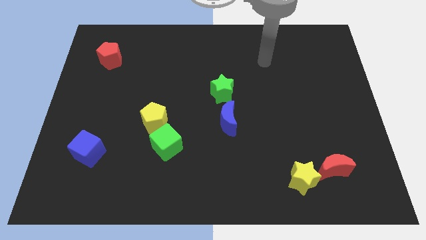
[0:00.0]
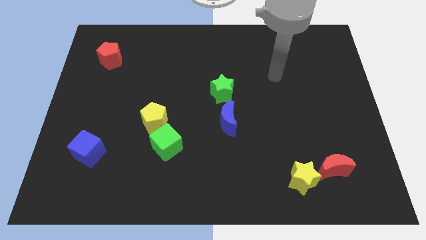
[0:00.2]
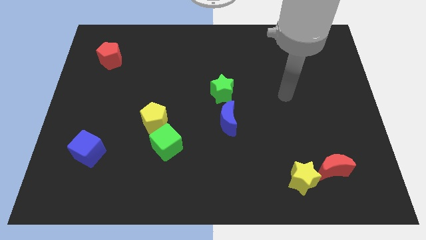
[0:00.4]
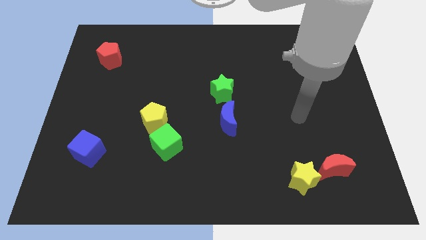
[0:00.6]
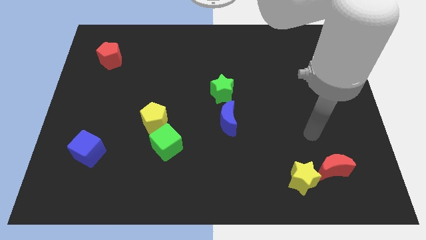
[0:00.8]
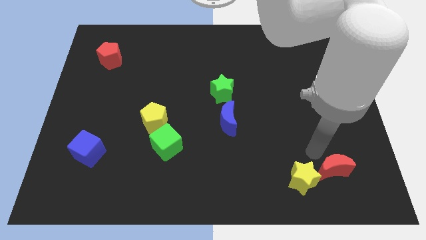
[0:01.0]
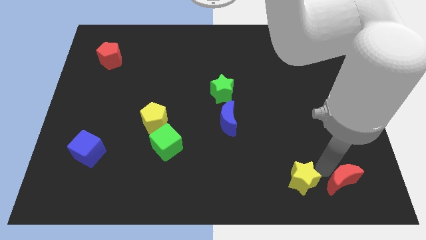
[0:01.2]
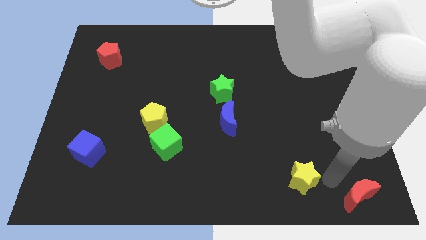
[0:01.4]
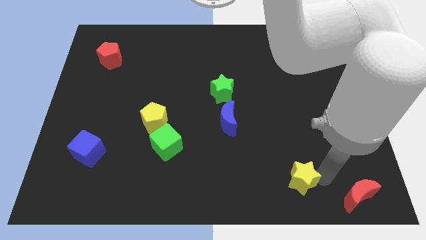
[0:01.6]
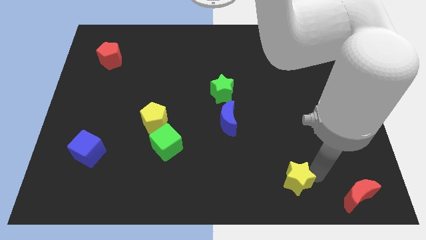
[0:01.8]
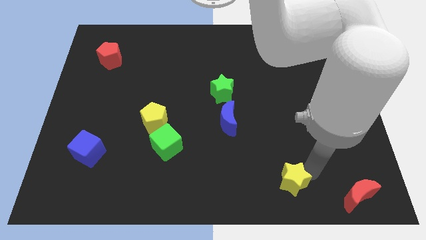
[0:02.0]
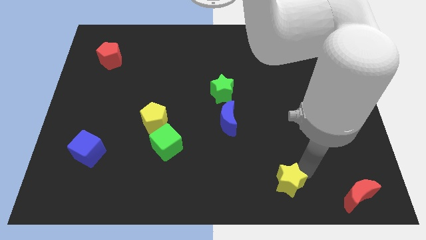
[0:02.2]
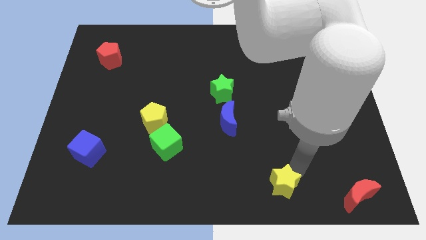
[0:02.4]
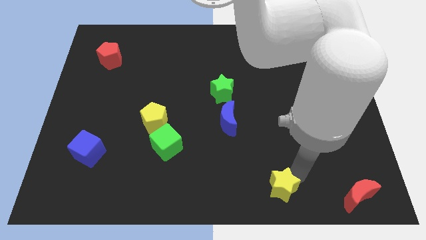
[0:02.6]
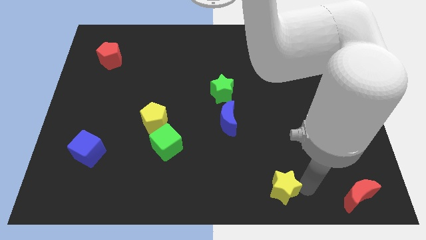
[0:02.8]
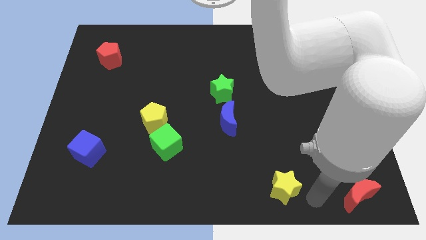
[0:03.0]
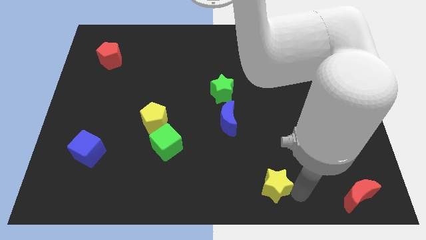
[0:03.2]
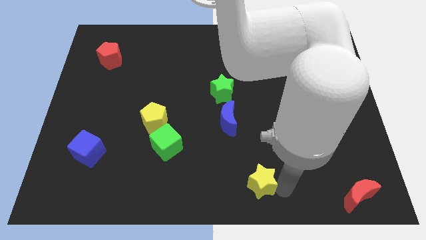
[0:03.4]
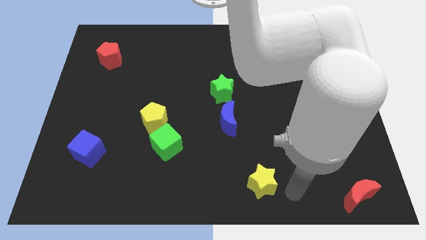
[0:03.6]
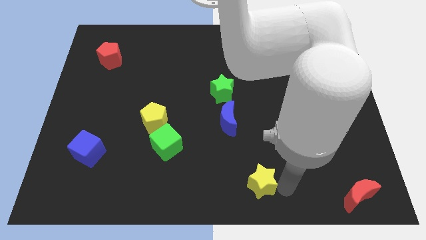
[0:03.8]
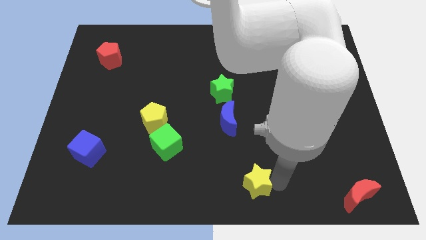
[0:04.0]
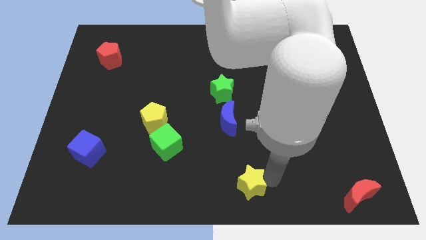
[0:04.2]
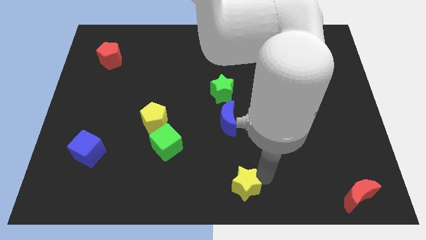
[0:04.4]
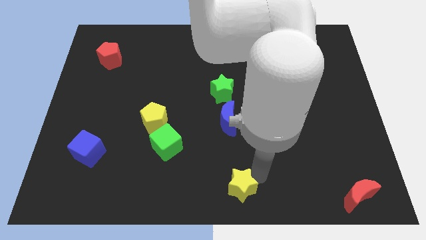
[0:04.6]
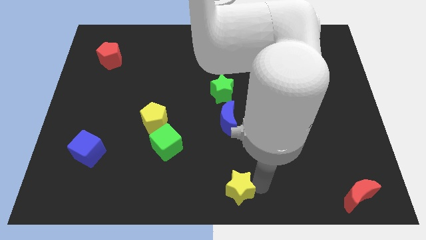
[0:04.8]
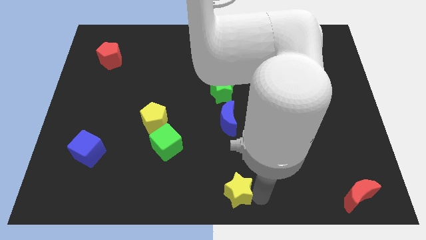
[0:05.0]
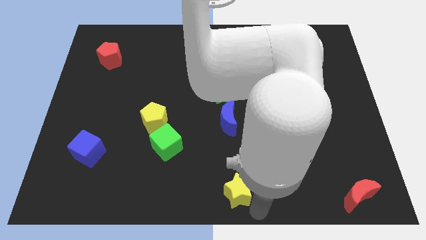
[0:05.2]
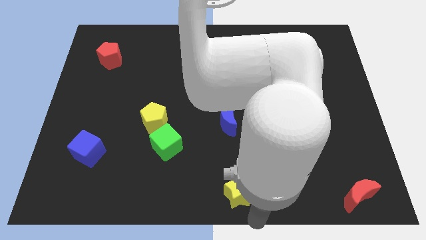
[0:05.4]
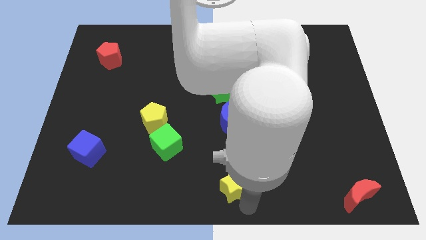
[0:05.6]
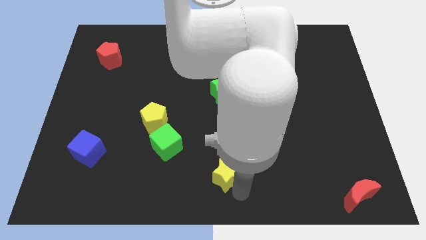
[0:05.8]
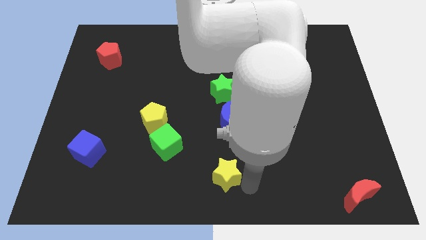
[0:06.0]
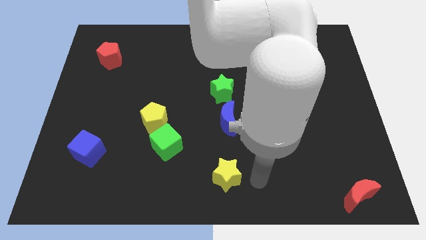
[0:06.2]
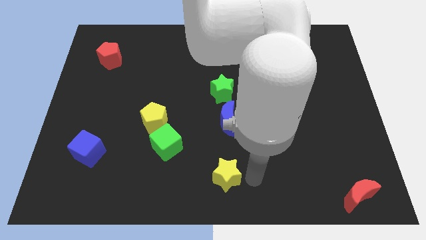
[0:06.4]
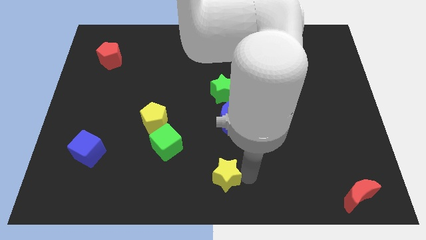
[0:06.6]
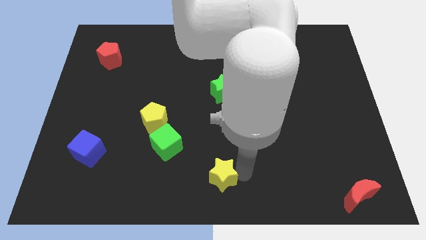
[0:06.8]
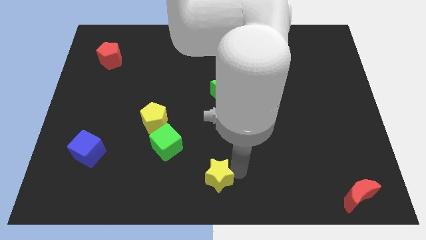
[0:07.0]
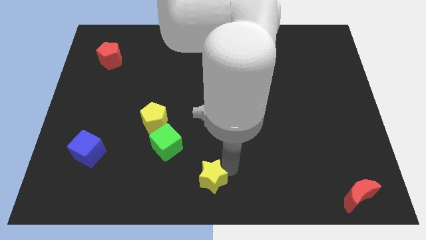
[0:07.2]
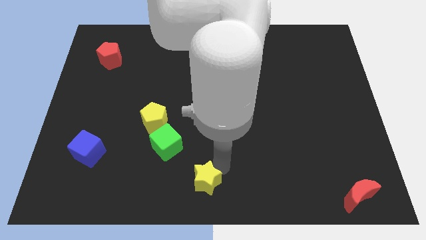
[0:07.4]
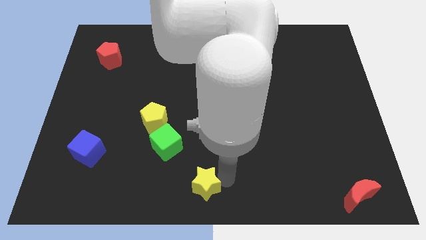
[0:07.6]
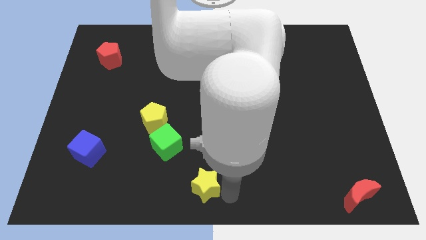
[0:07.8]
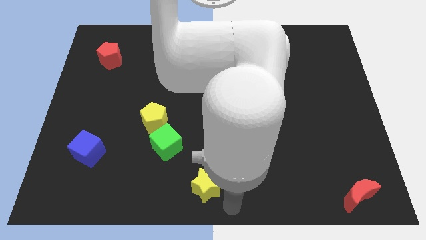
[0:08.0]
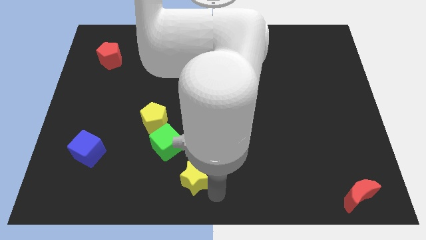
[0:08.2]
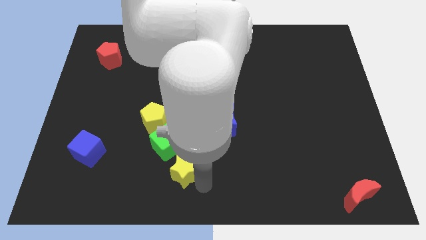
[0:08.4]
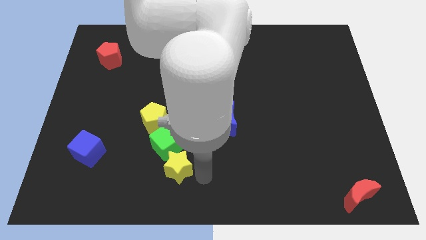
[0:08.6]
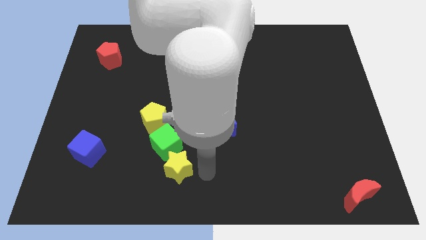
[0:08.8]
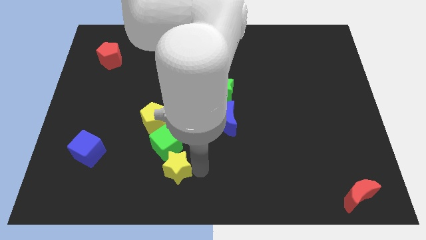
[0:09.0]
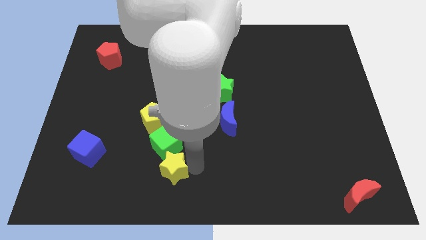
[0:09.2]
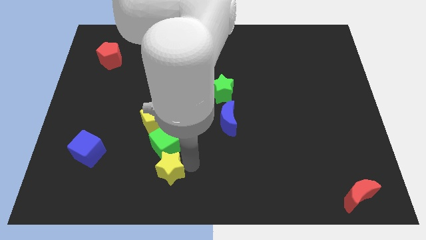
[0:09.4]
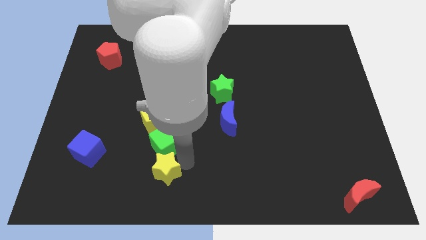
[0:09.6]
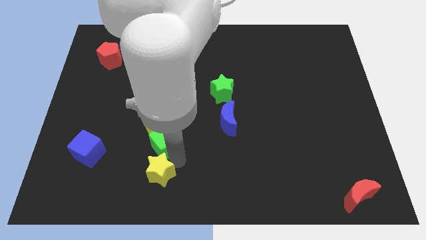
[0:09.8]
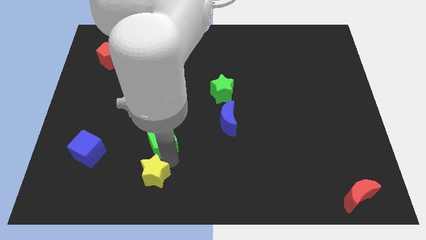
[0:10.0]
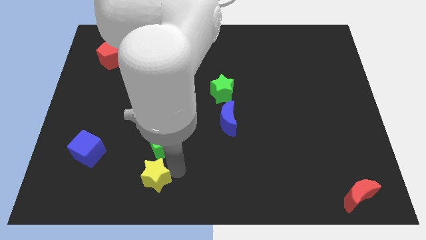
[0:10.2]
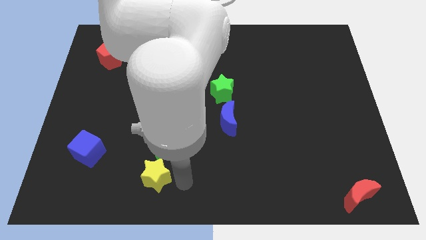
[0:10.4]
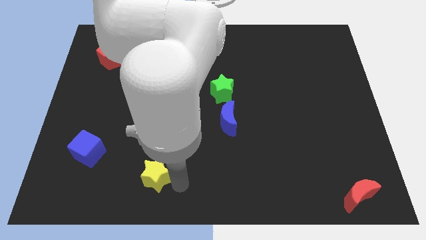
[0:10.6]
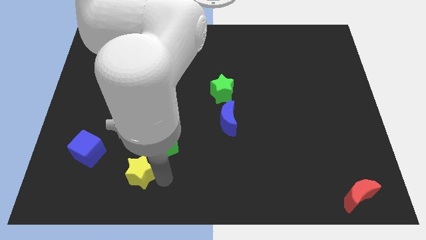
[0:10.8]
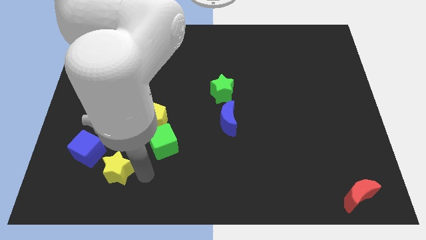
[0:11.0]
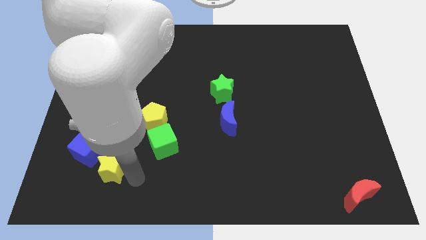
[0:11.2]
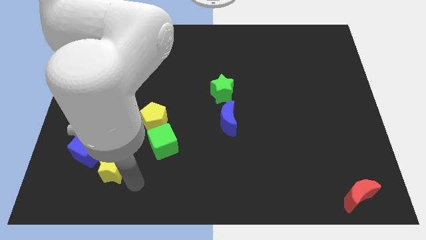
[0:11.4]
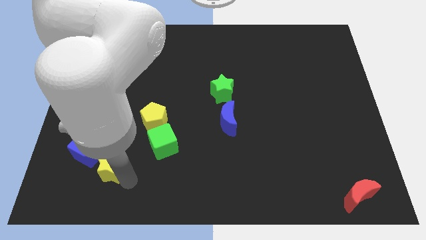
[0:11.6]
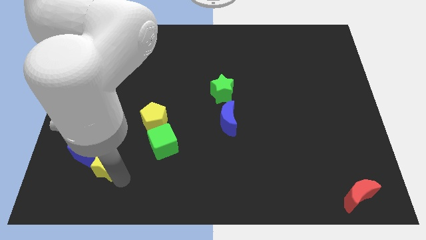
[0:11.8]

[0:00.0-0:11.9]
slide the yellow star close to the blue cube

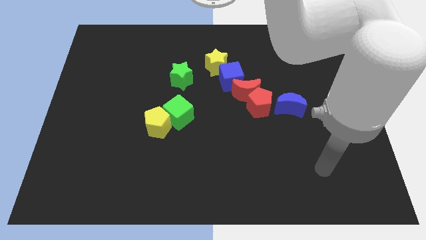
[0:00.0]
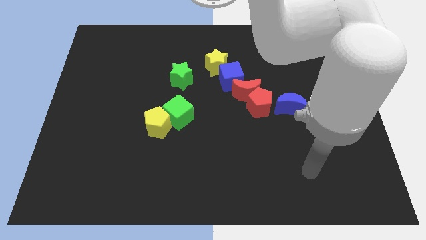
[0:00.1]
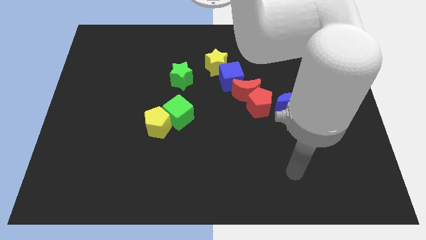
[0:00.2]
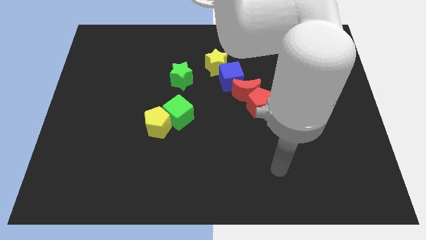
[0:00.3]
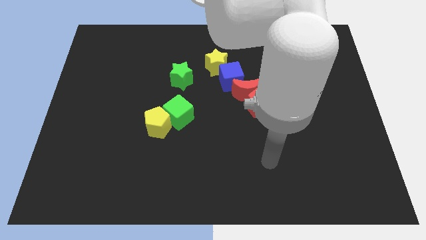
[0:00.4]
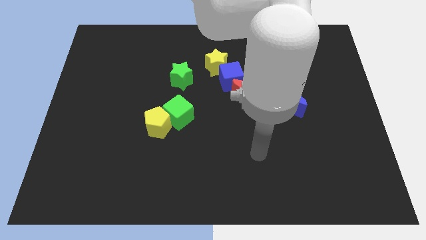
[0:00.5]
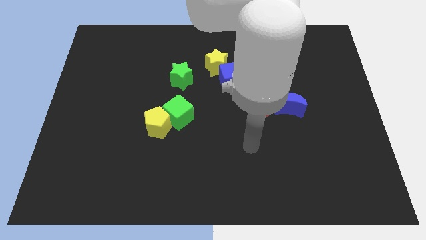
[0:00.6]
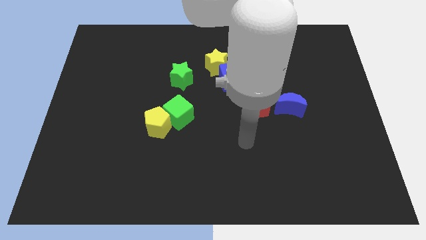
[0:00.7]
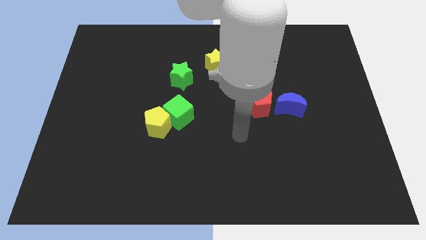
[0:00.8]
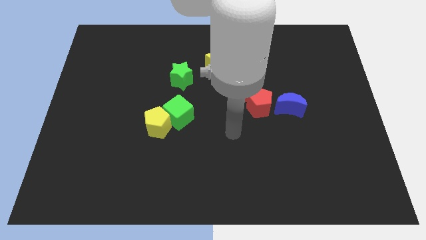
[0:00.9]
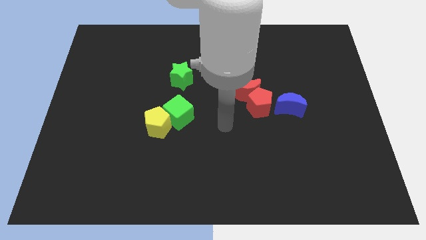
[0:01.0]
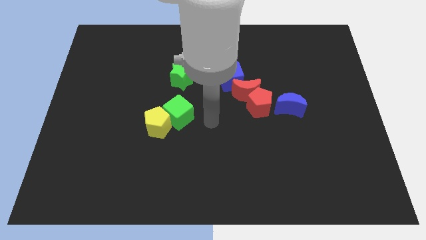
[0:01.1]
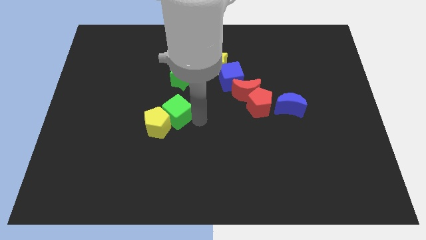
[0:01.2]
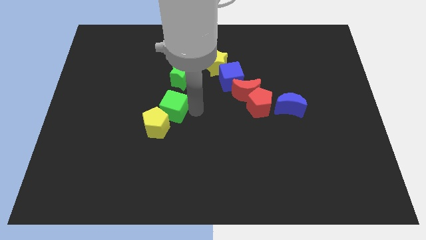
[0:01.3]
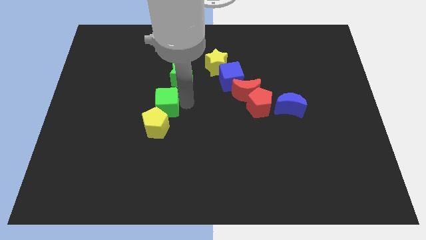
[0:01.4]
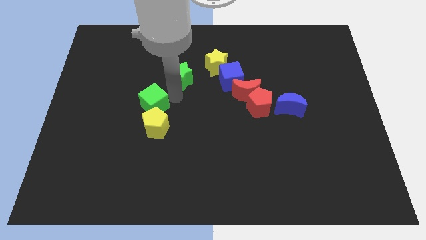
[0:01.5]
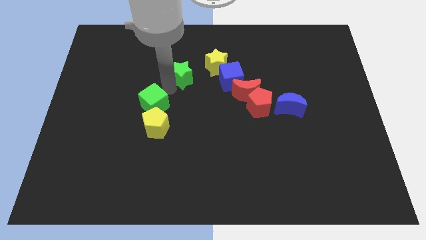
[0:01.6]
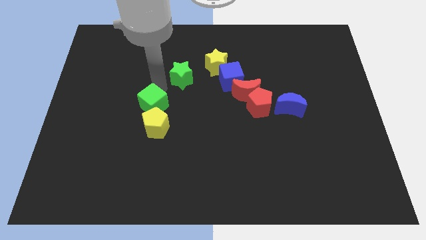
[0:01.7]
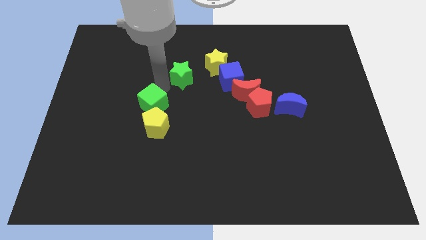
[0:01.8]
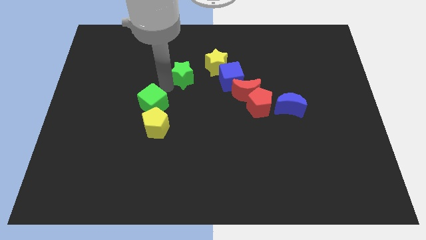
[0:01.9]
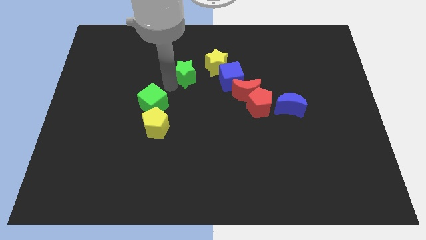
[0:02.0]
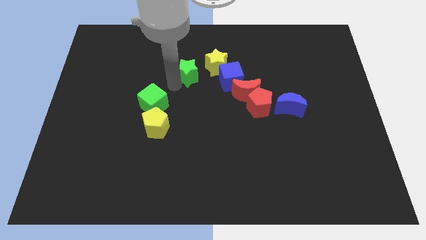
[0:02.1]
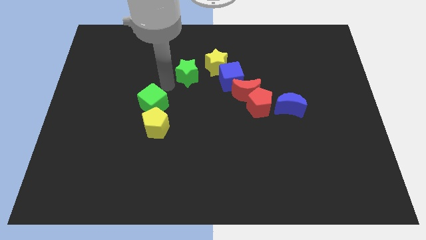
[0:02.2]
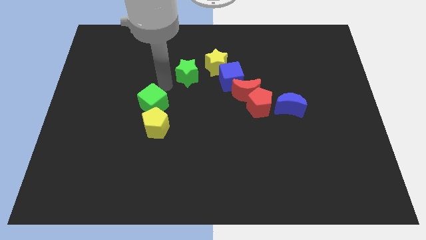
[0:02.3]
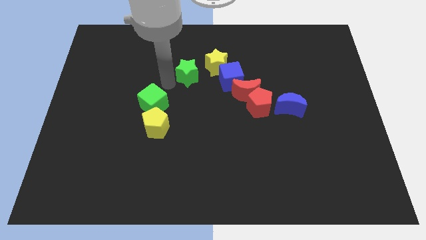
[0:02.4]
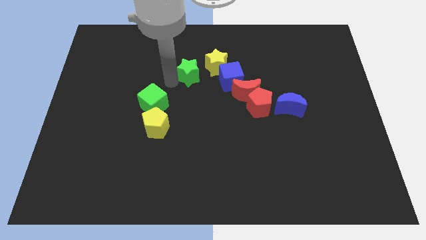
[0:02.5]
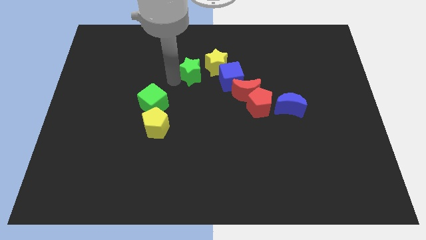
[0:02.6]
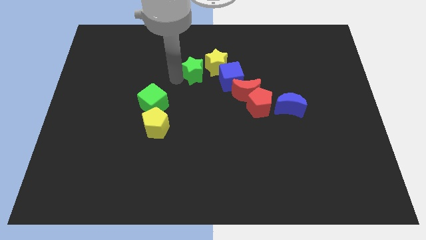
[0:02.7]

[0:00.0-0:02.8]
put the green star to the yellow star
